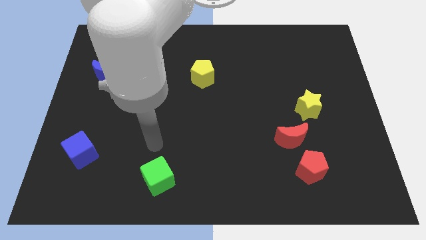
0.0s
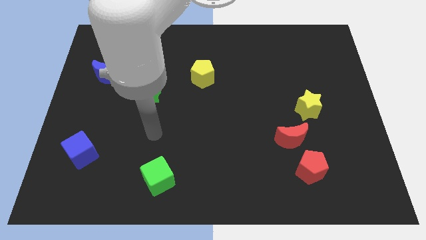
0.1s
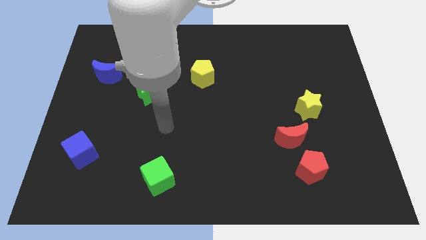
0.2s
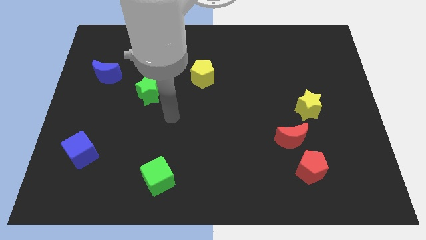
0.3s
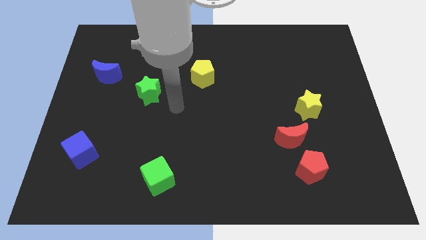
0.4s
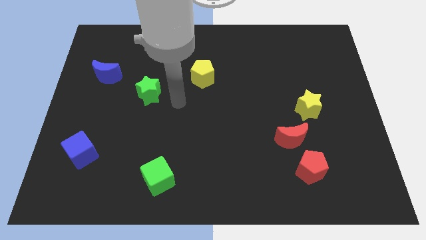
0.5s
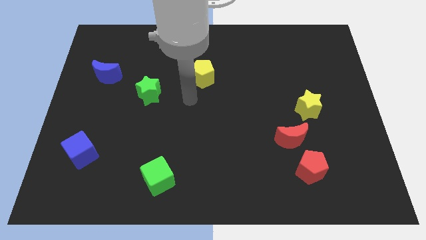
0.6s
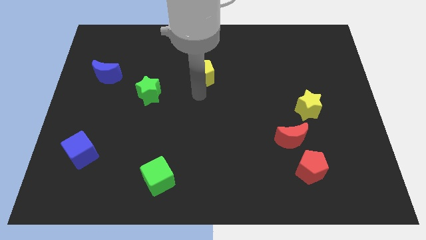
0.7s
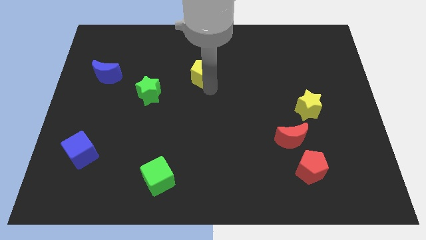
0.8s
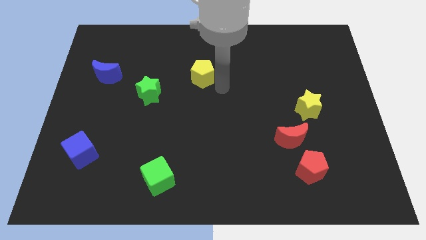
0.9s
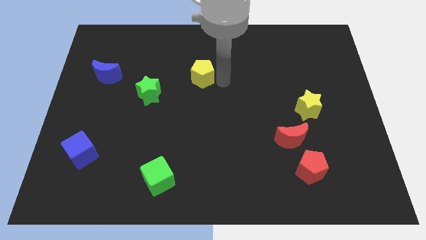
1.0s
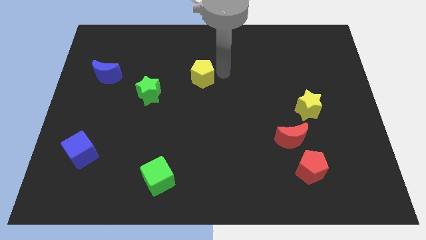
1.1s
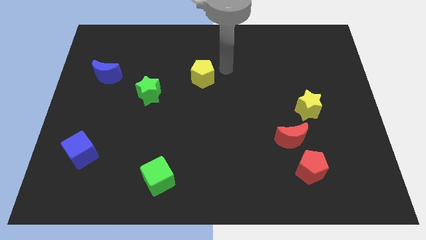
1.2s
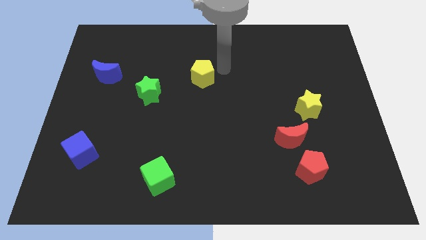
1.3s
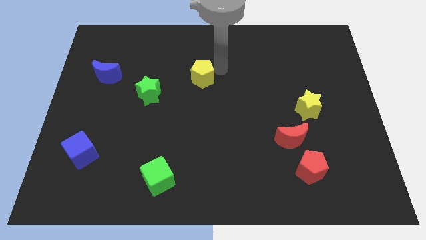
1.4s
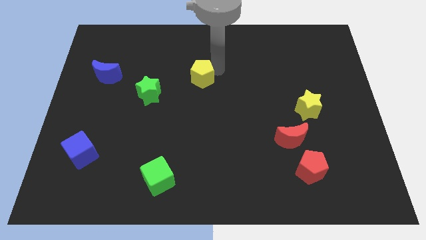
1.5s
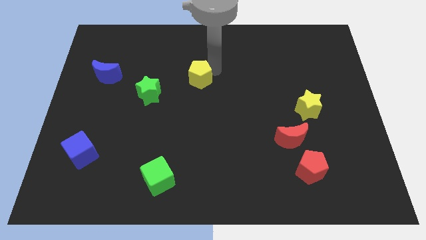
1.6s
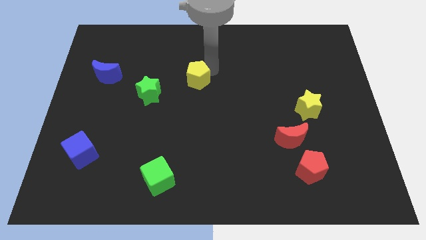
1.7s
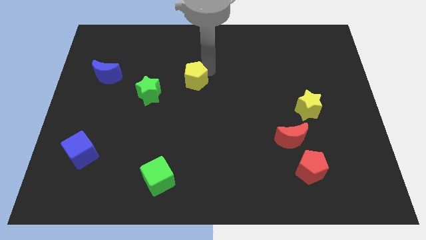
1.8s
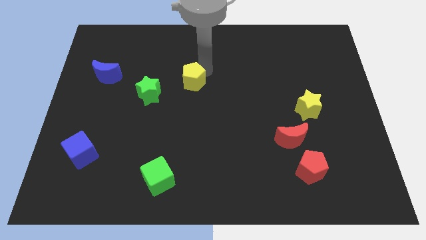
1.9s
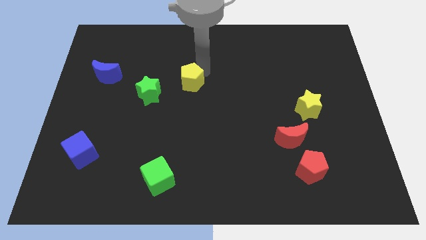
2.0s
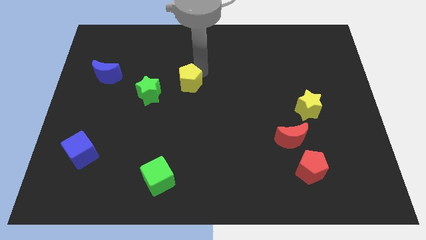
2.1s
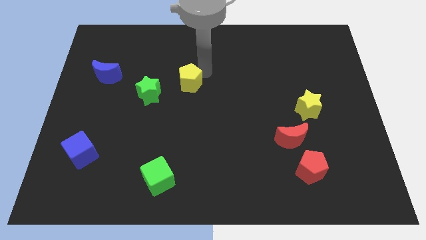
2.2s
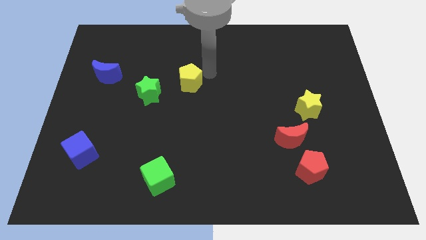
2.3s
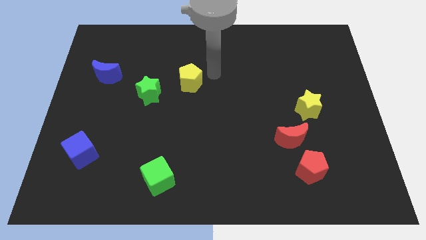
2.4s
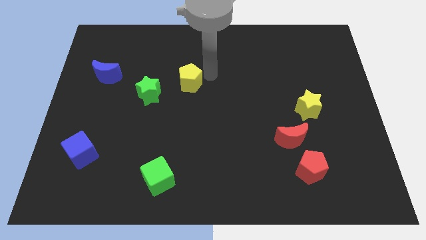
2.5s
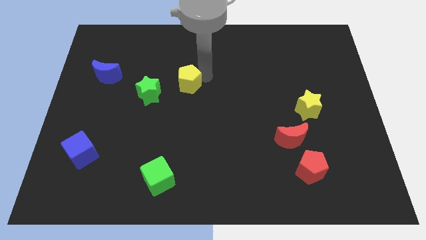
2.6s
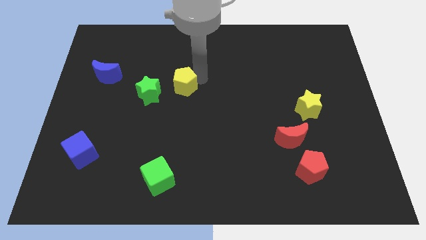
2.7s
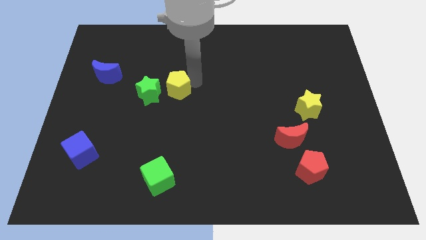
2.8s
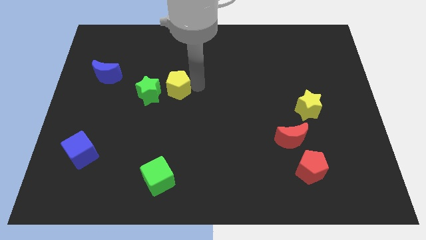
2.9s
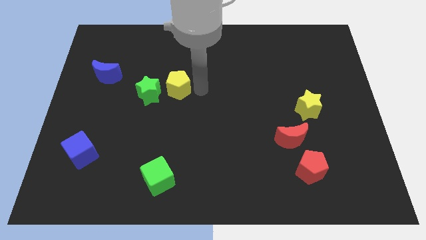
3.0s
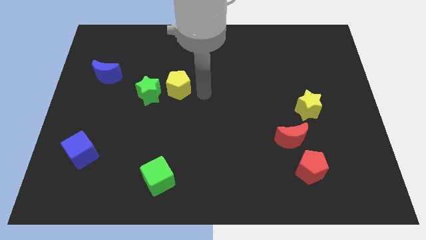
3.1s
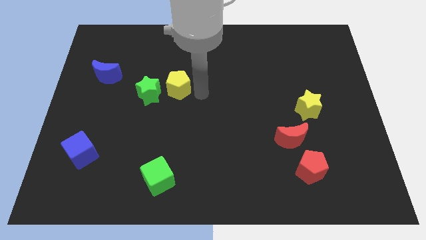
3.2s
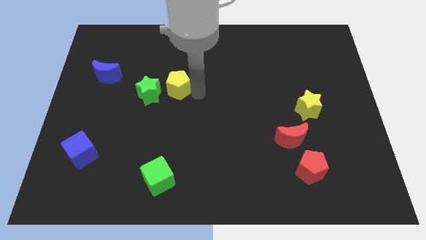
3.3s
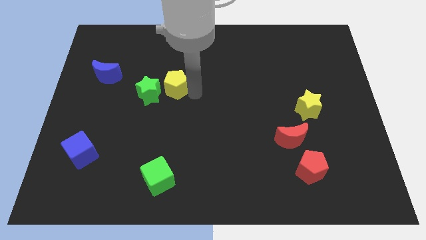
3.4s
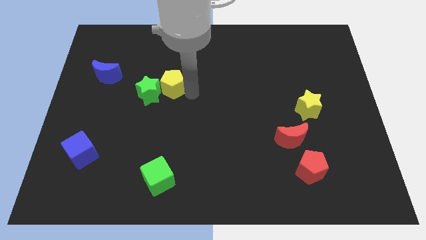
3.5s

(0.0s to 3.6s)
push the yellow pentagon a little left

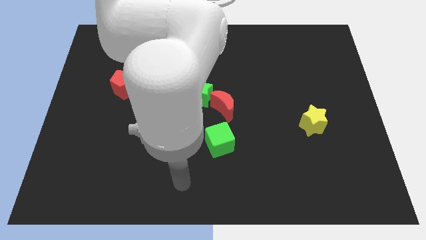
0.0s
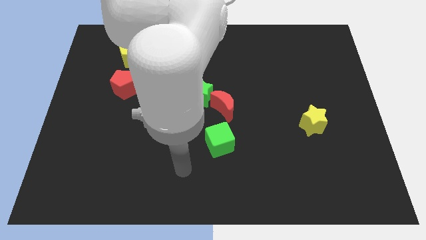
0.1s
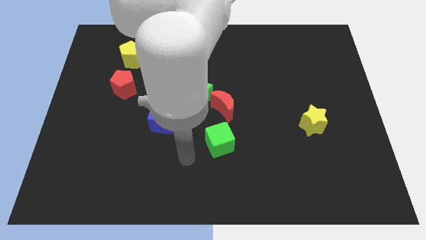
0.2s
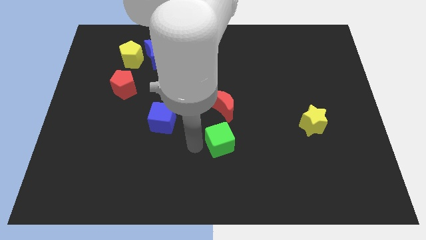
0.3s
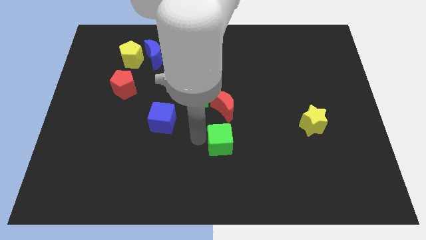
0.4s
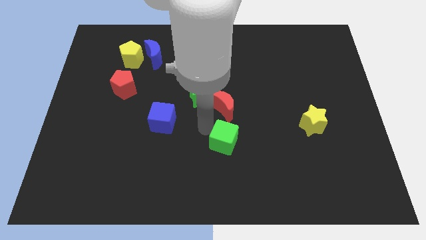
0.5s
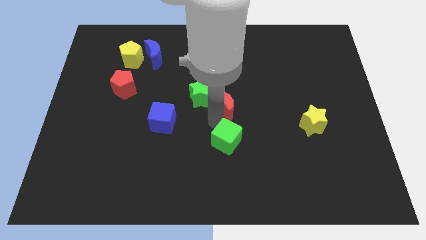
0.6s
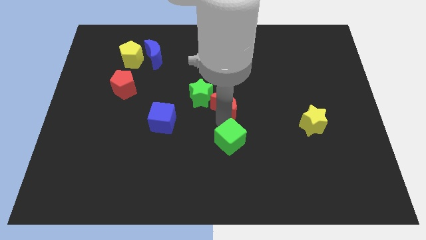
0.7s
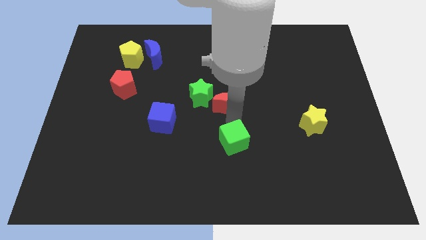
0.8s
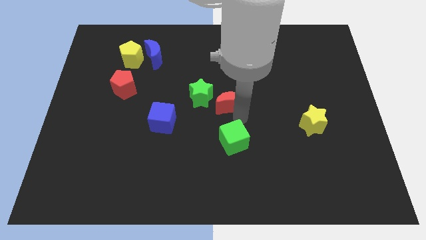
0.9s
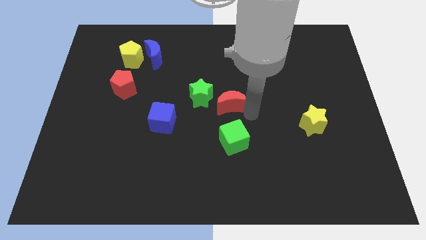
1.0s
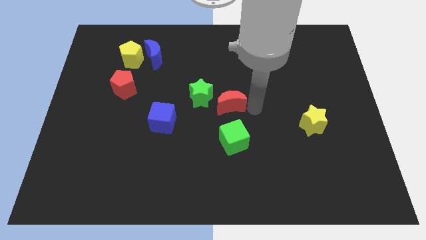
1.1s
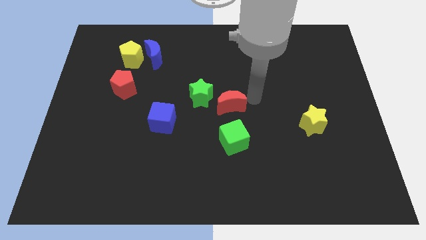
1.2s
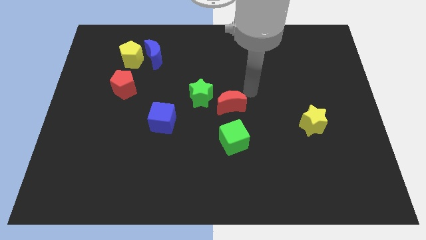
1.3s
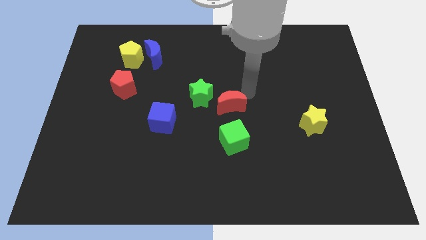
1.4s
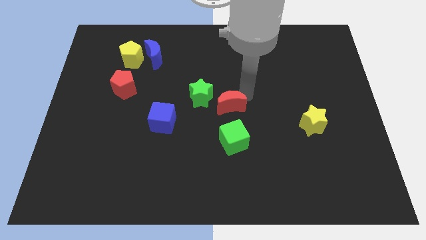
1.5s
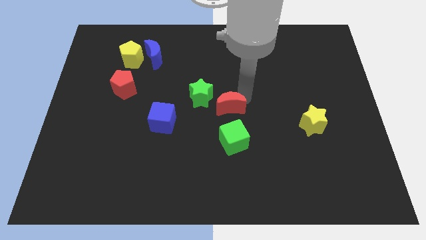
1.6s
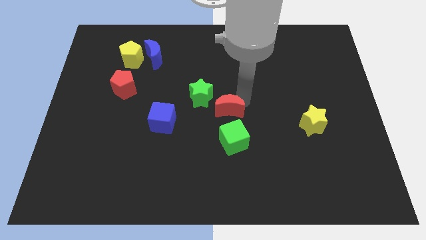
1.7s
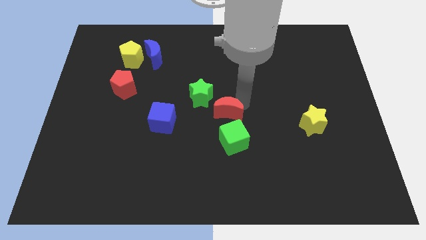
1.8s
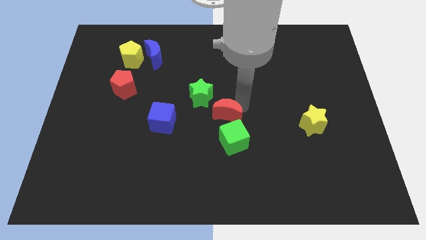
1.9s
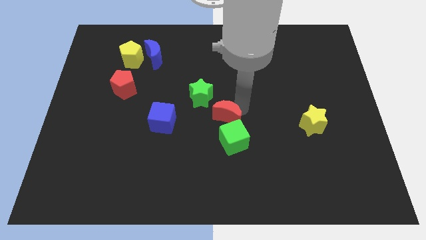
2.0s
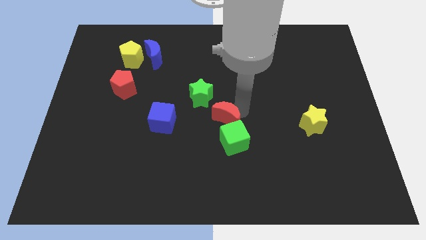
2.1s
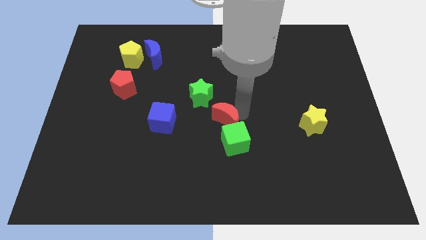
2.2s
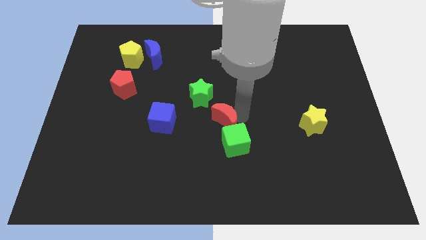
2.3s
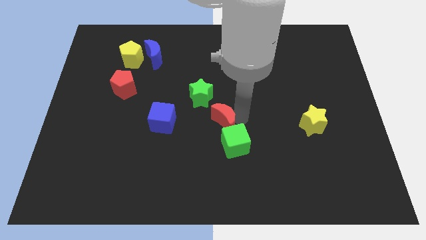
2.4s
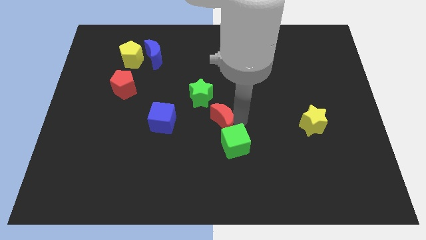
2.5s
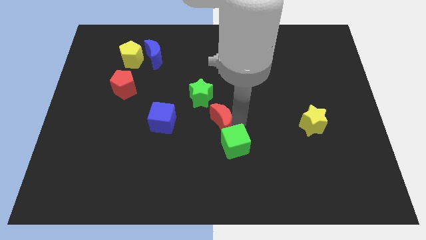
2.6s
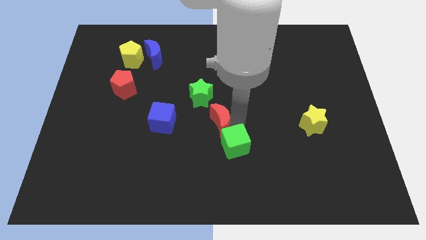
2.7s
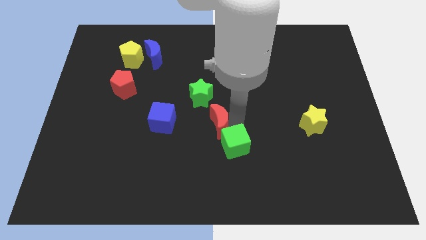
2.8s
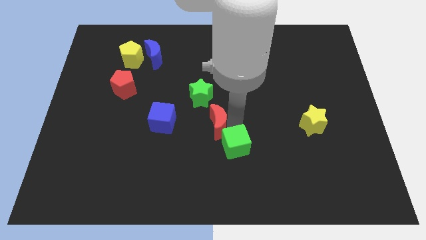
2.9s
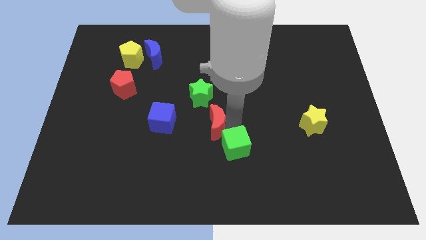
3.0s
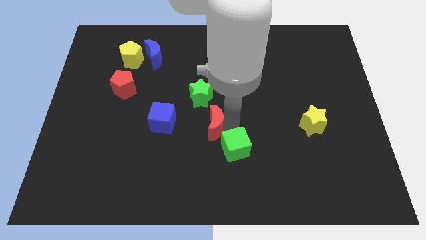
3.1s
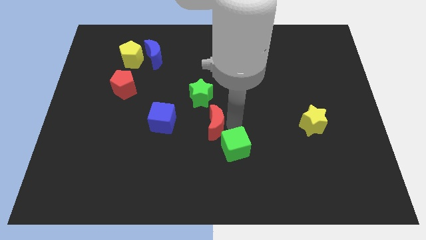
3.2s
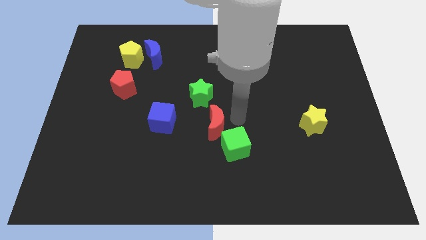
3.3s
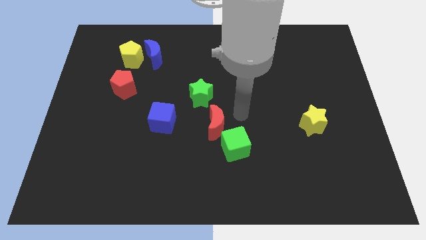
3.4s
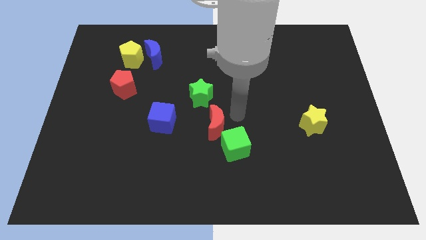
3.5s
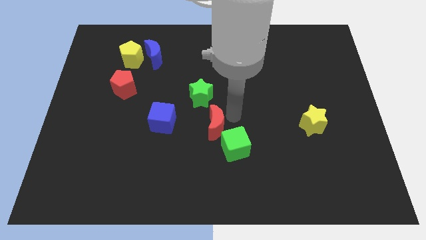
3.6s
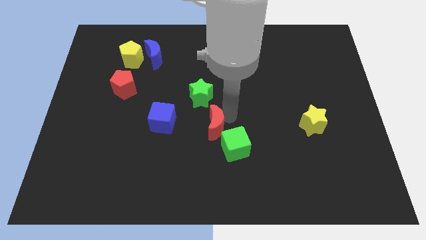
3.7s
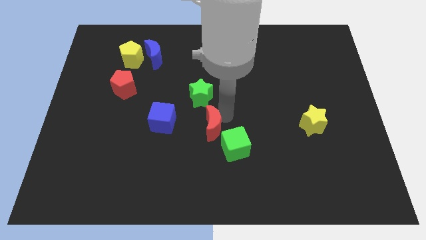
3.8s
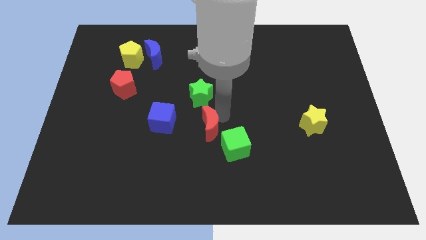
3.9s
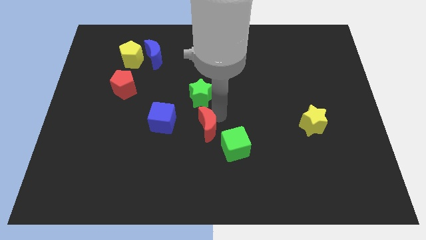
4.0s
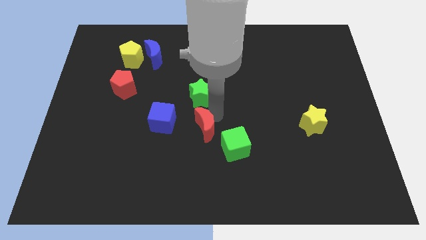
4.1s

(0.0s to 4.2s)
move the red moon diagonally down and left a little bit
